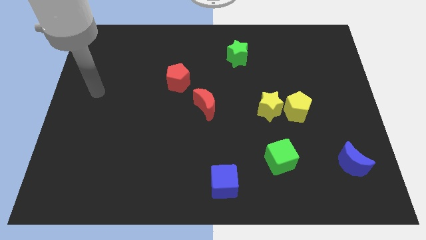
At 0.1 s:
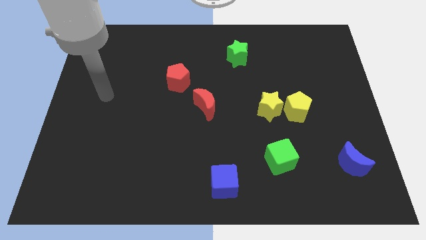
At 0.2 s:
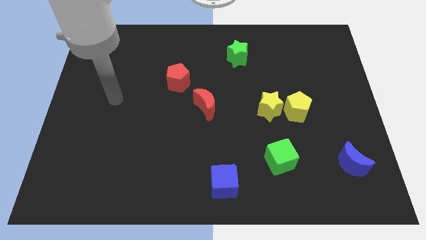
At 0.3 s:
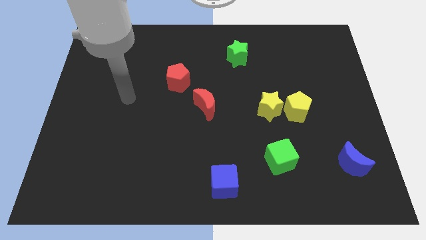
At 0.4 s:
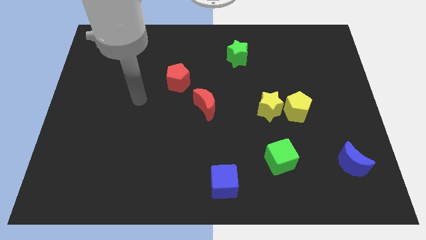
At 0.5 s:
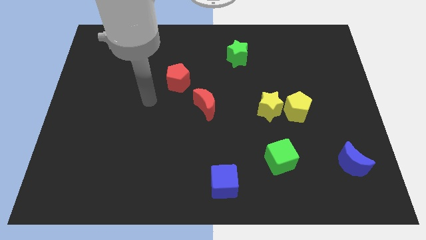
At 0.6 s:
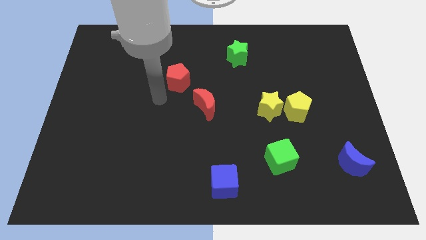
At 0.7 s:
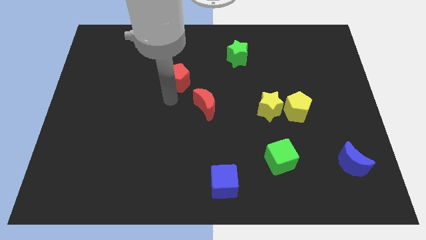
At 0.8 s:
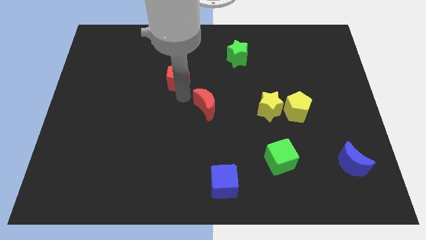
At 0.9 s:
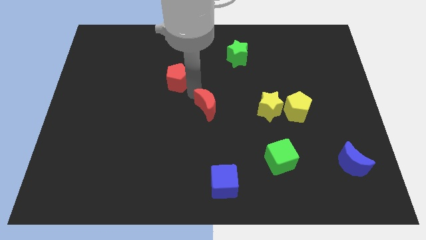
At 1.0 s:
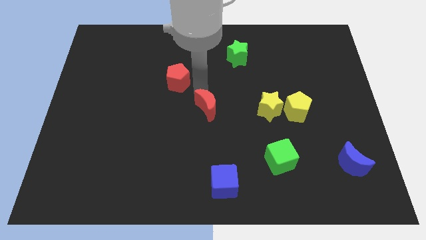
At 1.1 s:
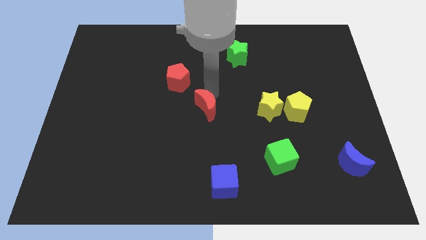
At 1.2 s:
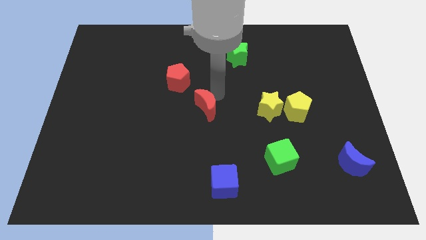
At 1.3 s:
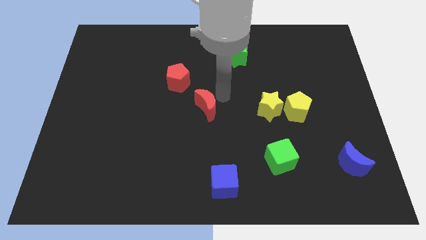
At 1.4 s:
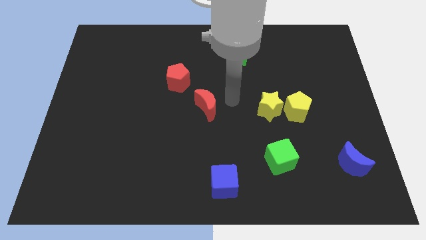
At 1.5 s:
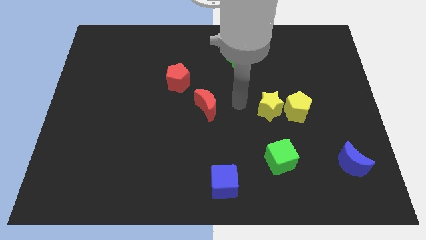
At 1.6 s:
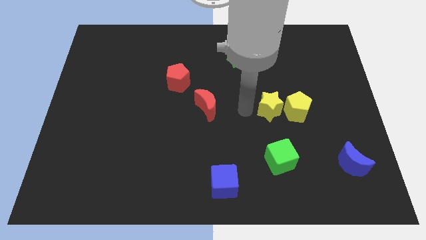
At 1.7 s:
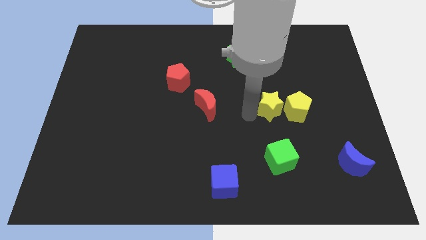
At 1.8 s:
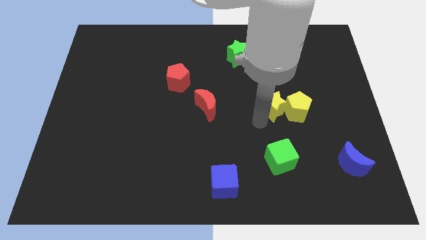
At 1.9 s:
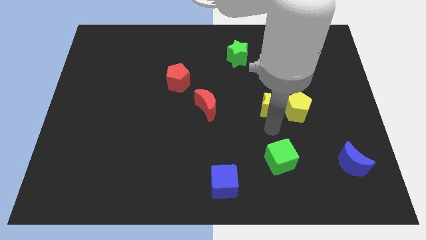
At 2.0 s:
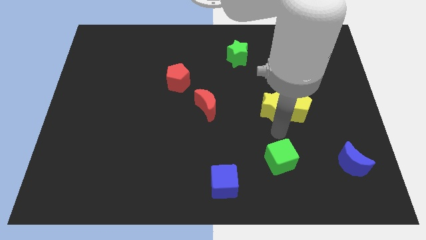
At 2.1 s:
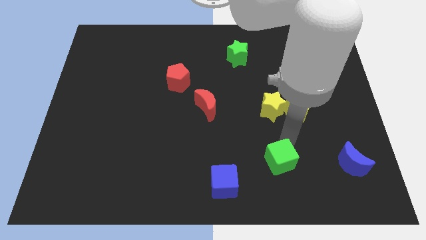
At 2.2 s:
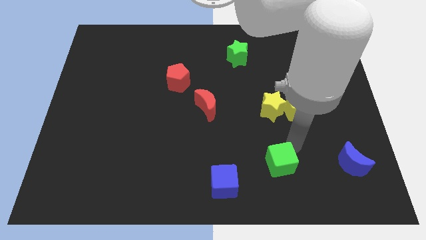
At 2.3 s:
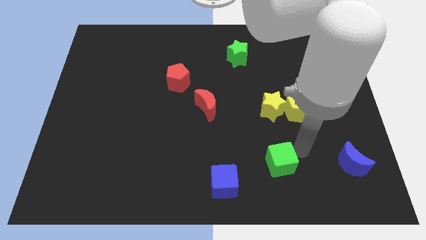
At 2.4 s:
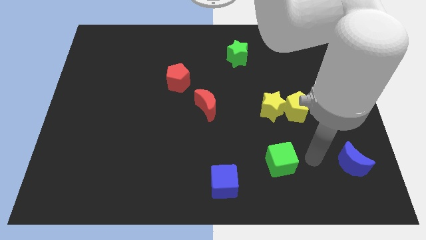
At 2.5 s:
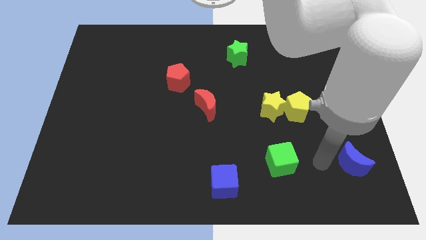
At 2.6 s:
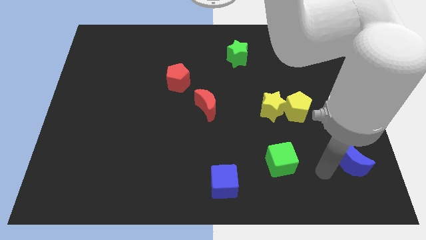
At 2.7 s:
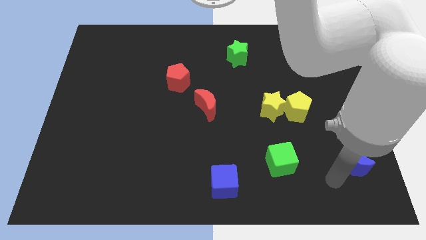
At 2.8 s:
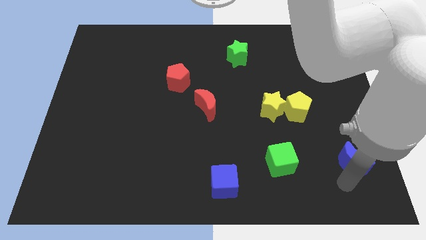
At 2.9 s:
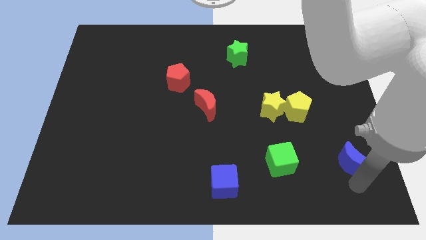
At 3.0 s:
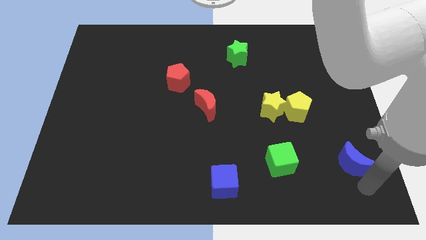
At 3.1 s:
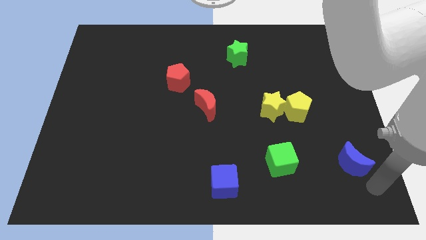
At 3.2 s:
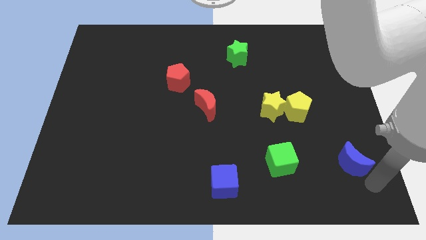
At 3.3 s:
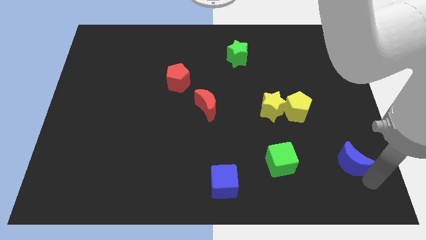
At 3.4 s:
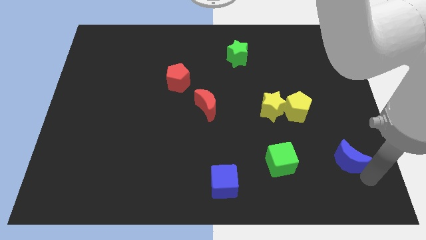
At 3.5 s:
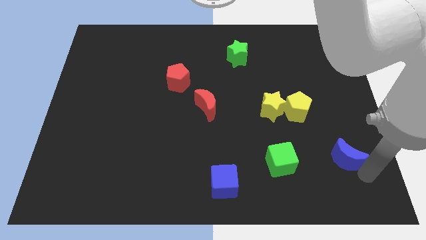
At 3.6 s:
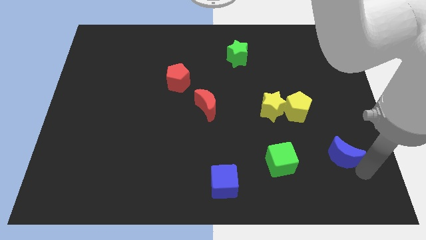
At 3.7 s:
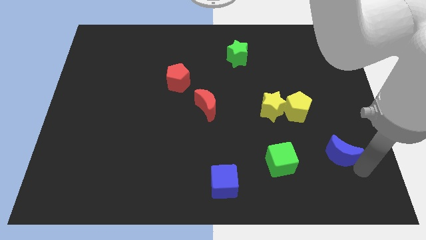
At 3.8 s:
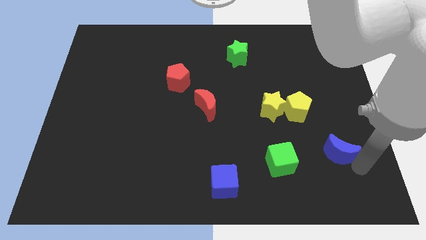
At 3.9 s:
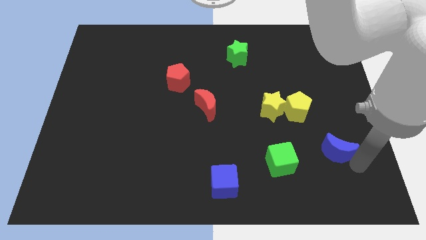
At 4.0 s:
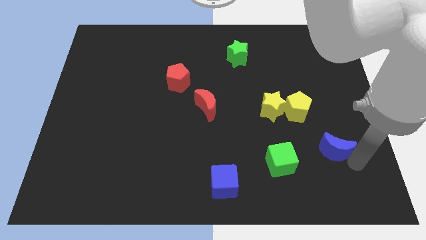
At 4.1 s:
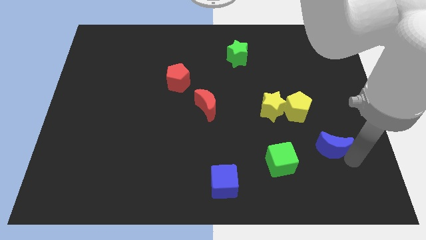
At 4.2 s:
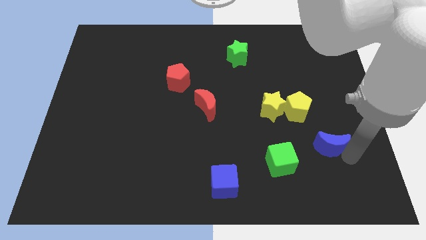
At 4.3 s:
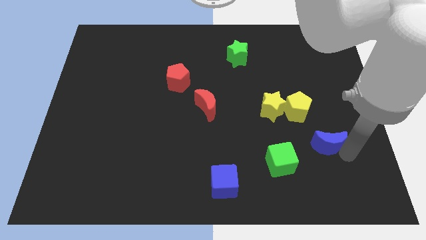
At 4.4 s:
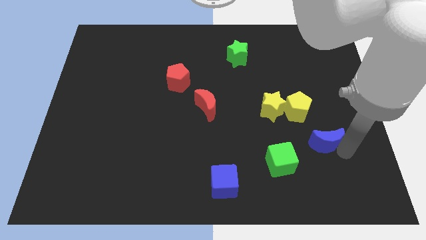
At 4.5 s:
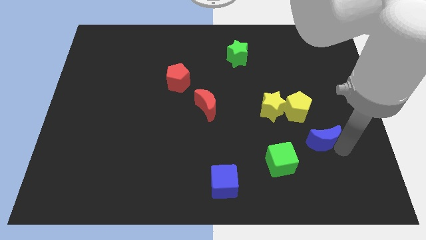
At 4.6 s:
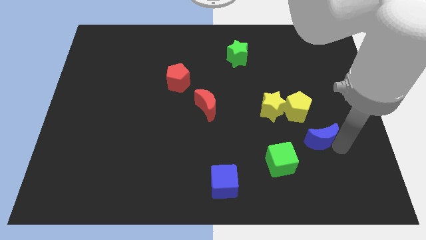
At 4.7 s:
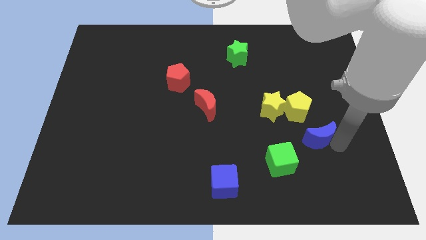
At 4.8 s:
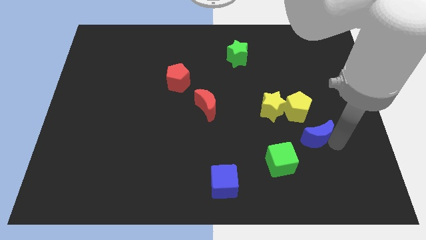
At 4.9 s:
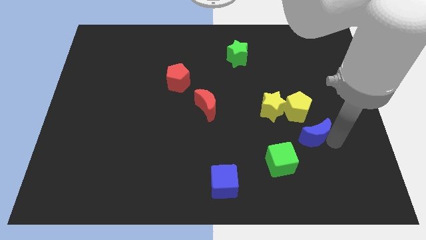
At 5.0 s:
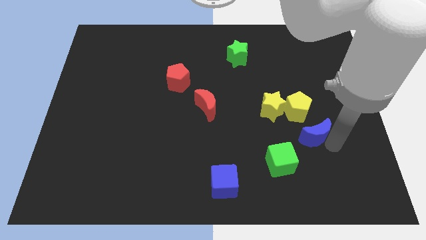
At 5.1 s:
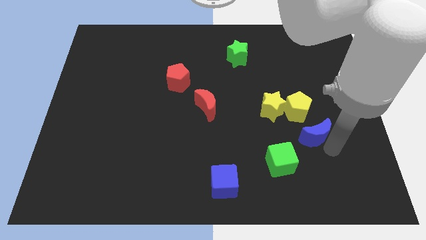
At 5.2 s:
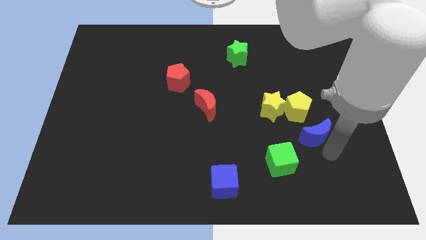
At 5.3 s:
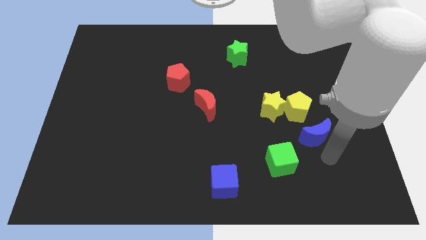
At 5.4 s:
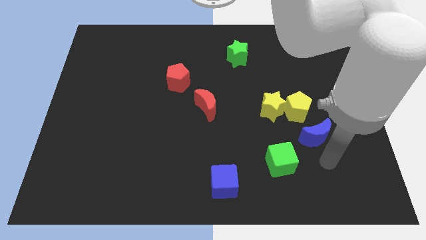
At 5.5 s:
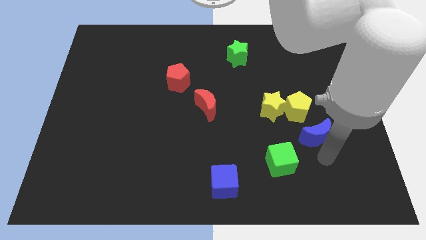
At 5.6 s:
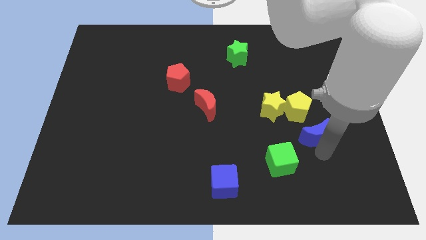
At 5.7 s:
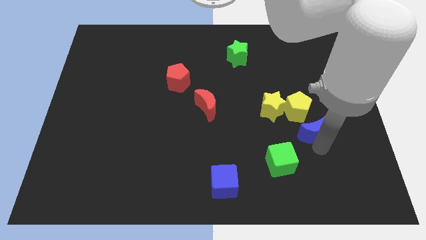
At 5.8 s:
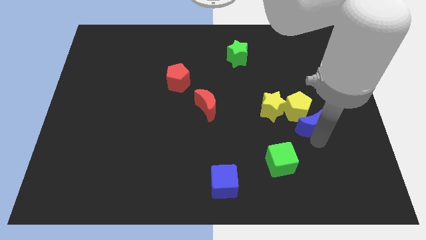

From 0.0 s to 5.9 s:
put the blue moon close to the yellow pentagon

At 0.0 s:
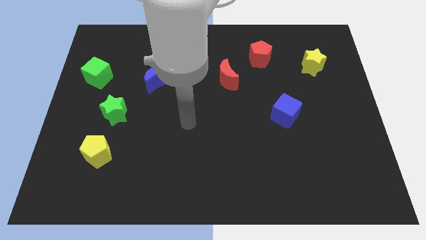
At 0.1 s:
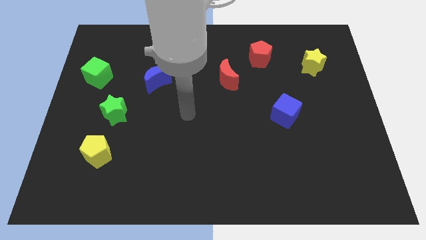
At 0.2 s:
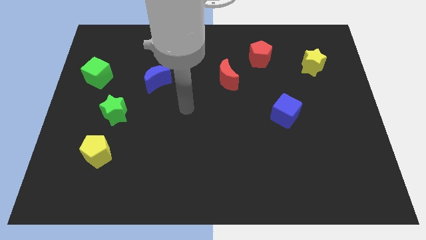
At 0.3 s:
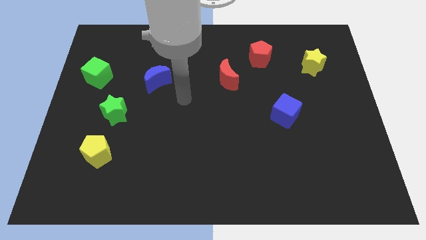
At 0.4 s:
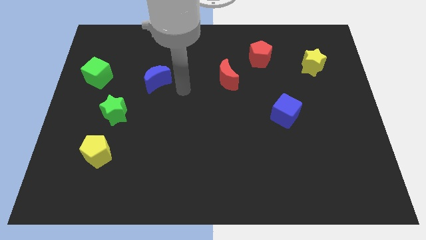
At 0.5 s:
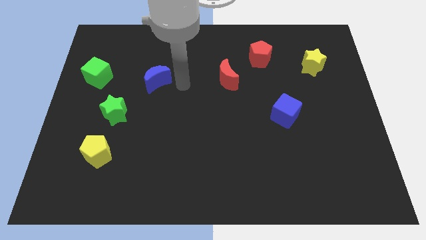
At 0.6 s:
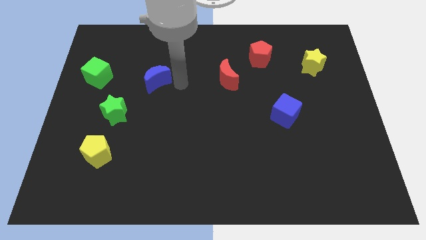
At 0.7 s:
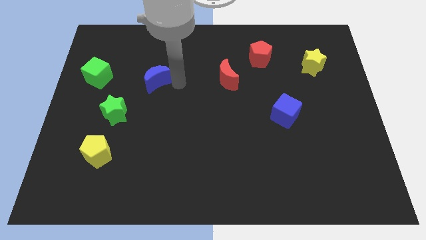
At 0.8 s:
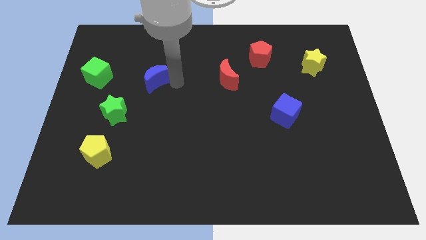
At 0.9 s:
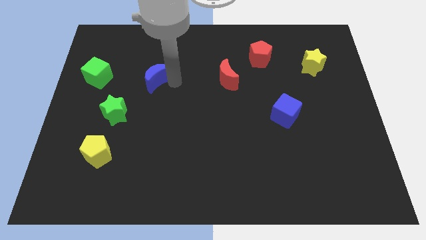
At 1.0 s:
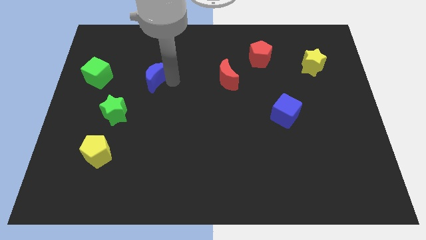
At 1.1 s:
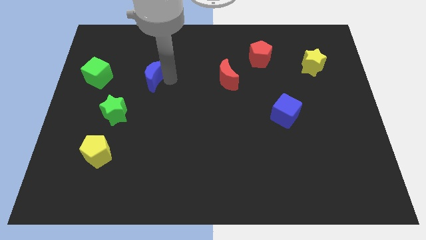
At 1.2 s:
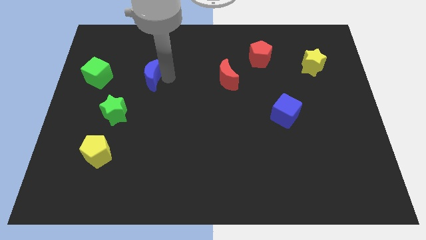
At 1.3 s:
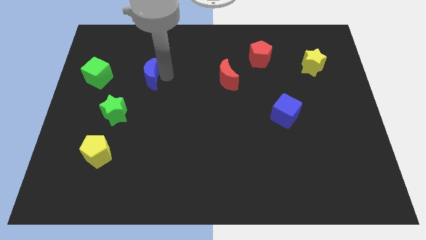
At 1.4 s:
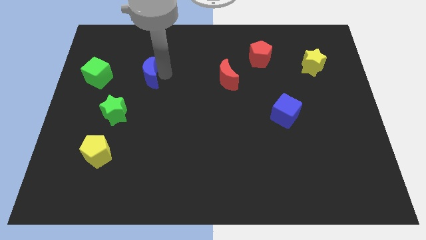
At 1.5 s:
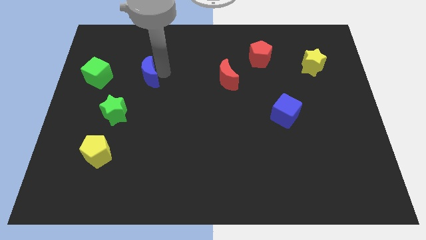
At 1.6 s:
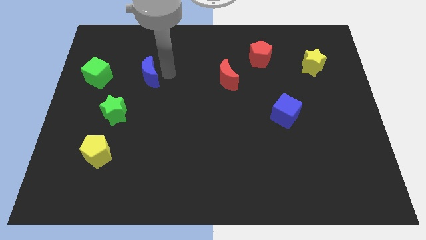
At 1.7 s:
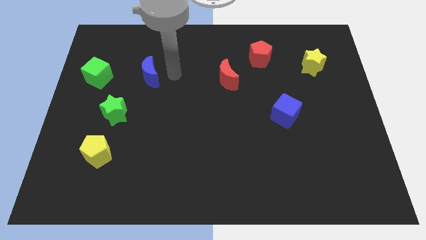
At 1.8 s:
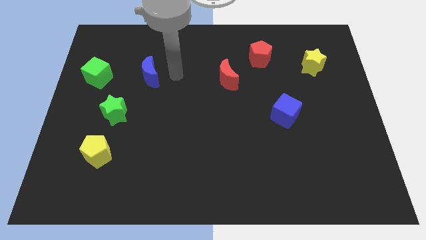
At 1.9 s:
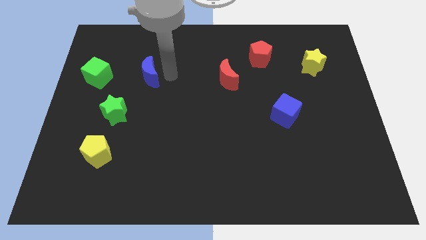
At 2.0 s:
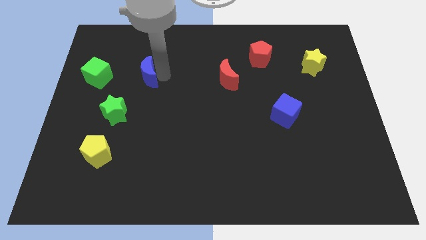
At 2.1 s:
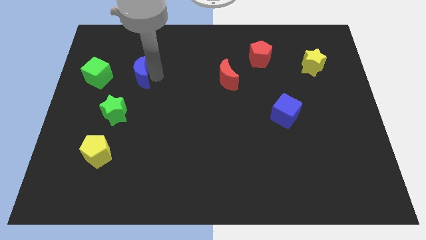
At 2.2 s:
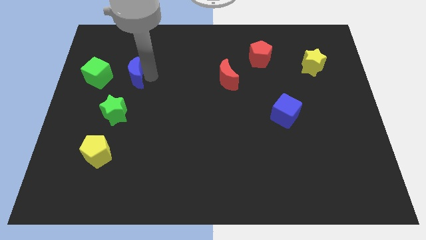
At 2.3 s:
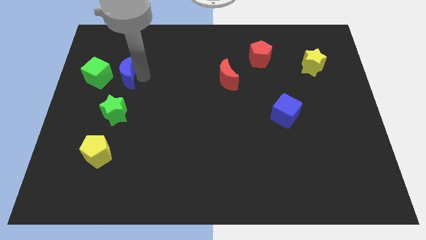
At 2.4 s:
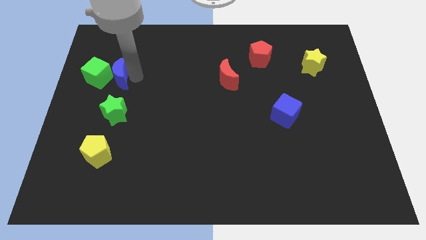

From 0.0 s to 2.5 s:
slide the blue moon next to the green cube
